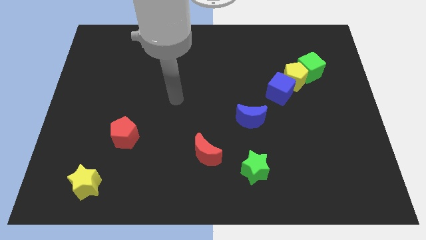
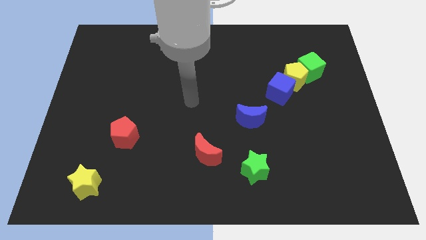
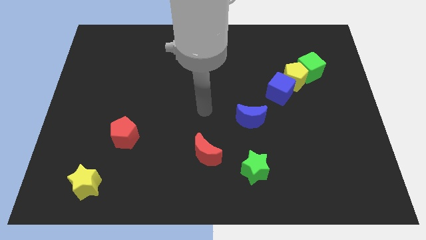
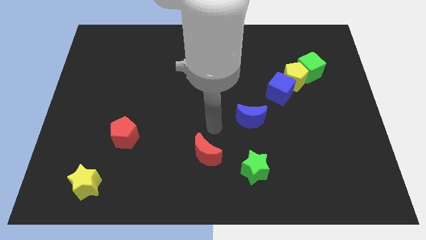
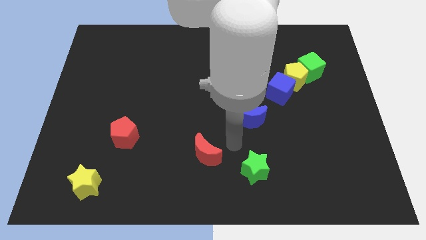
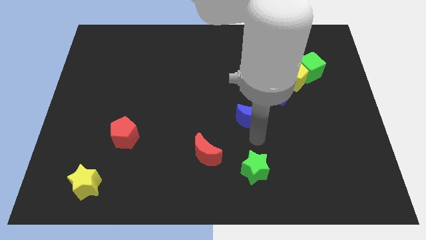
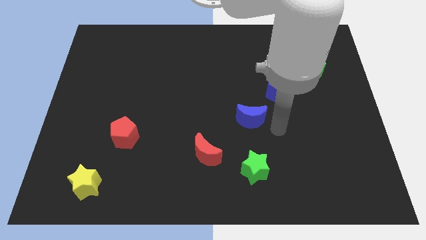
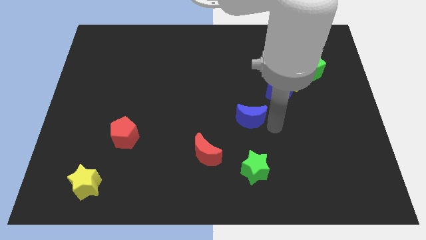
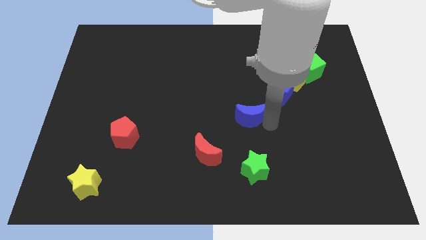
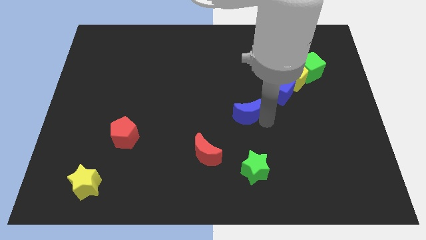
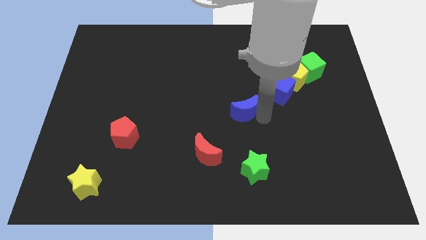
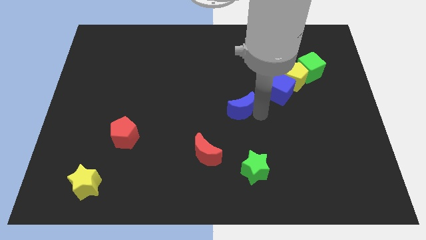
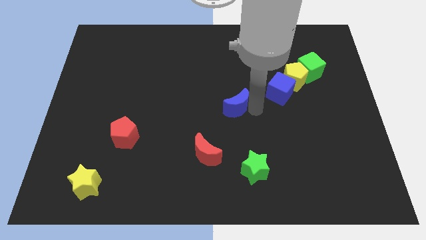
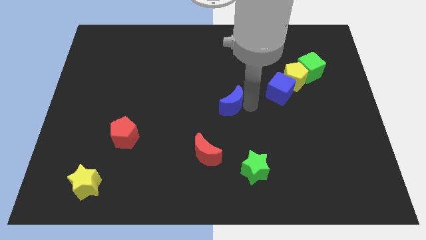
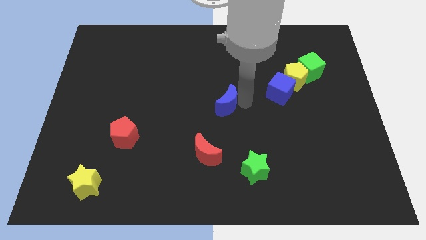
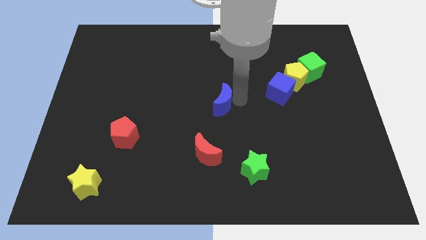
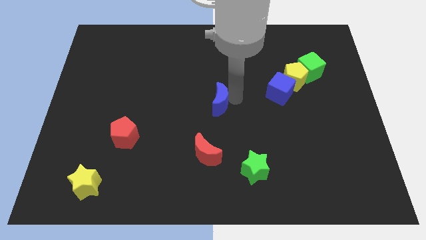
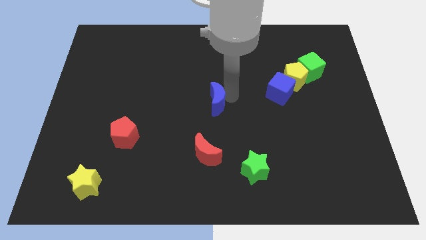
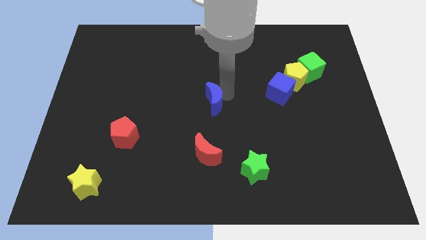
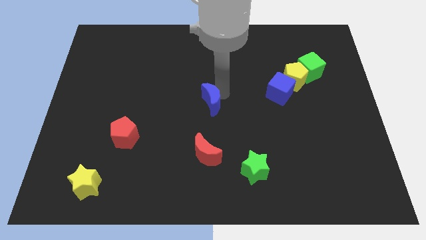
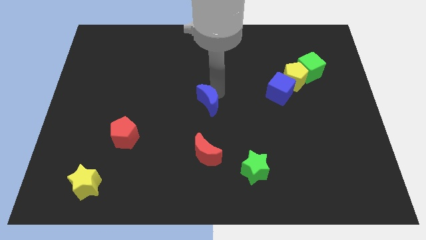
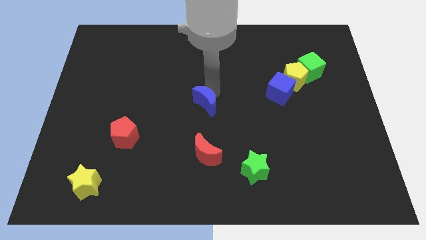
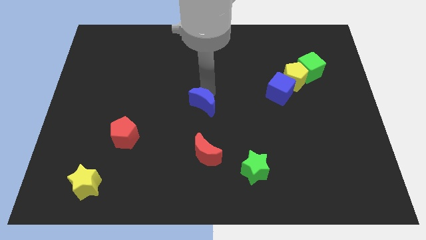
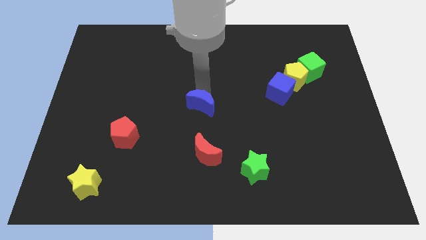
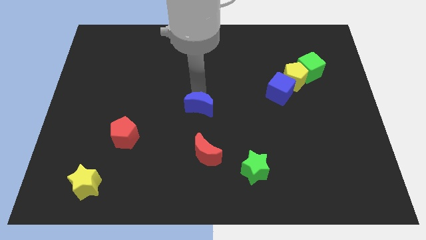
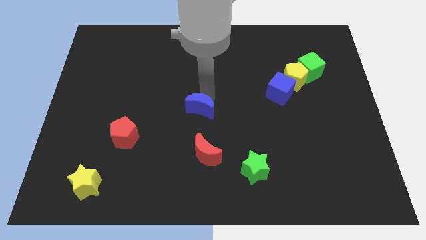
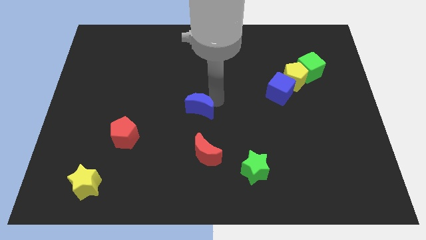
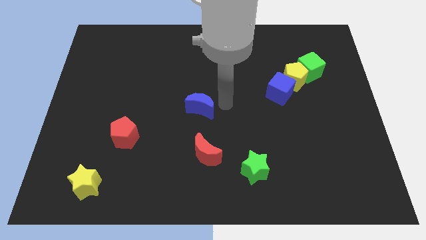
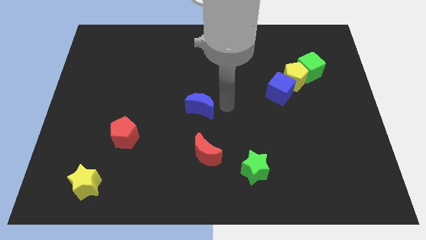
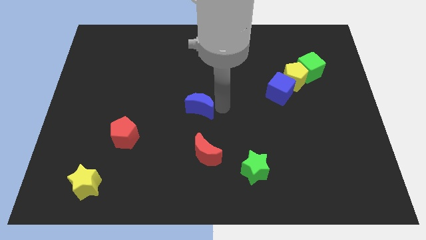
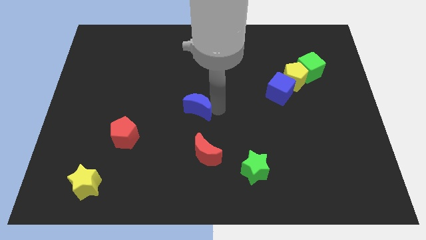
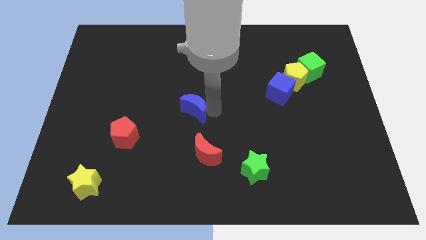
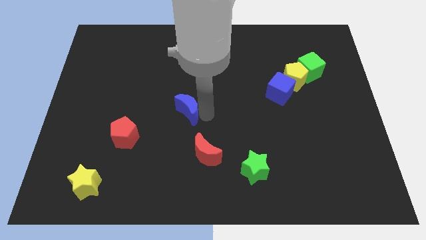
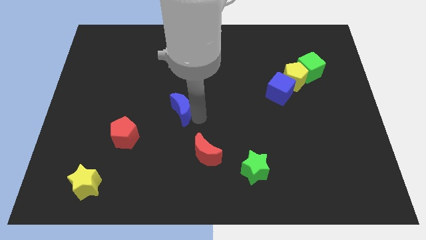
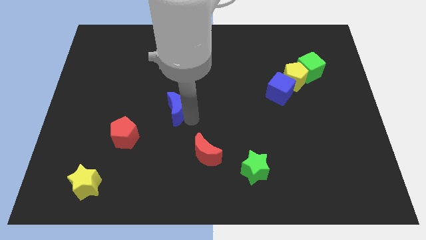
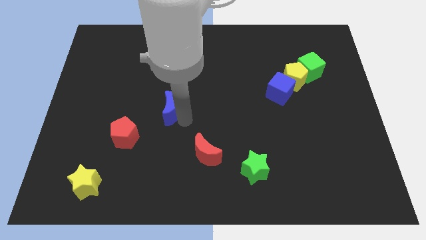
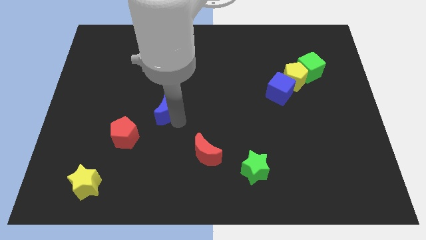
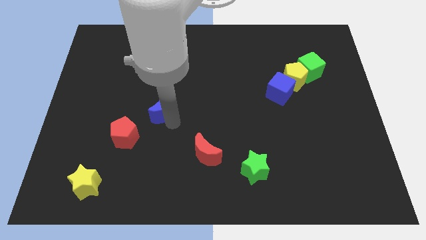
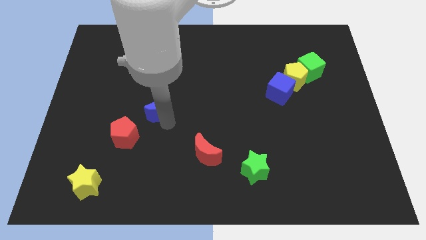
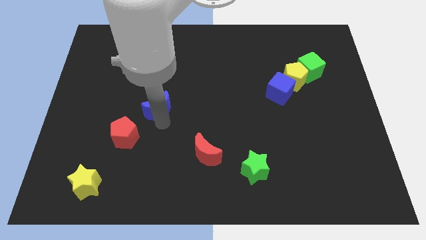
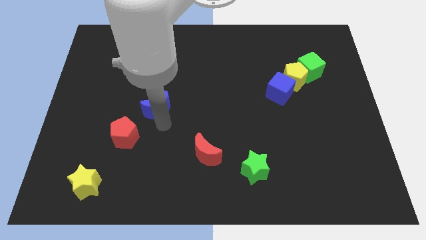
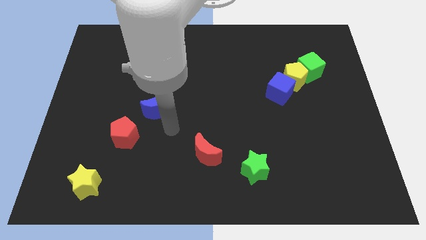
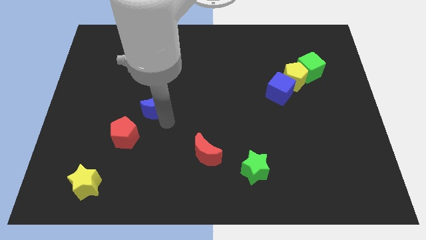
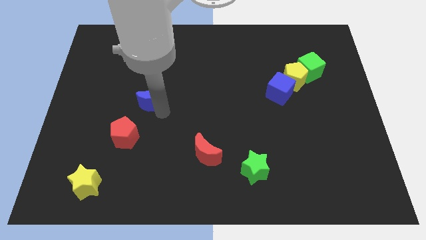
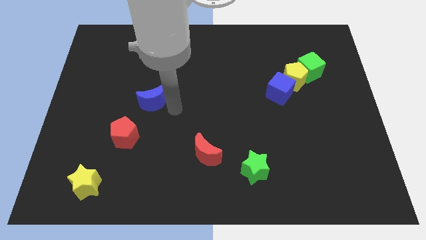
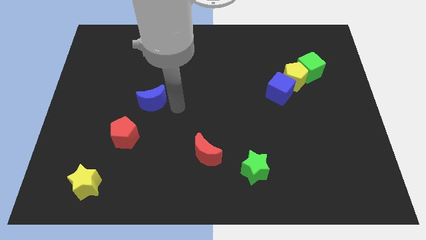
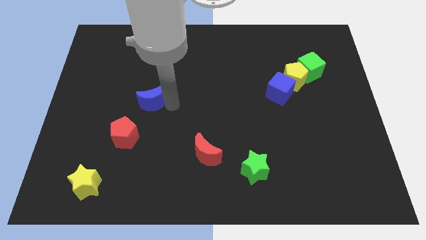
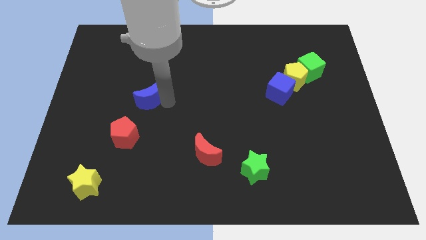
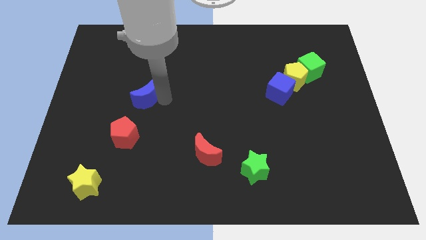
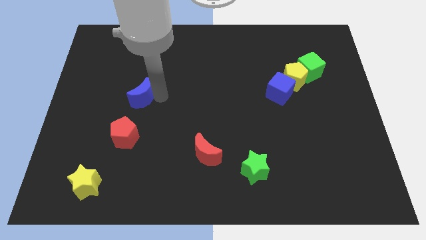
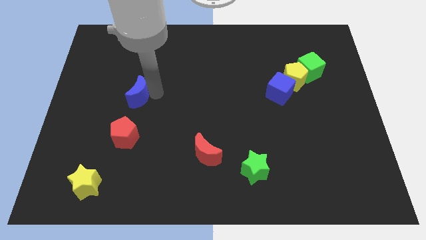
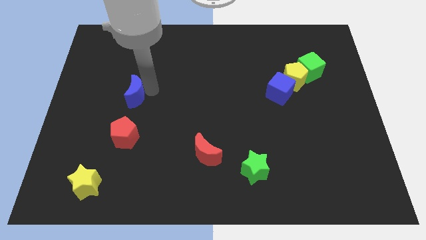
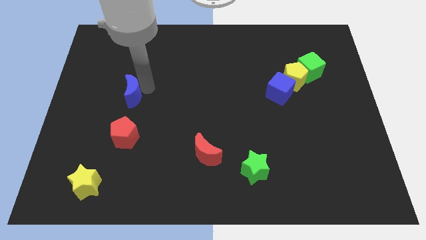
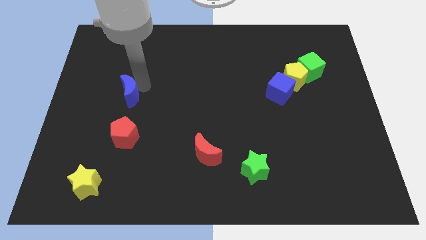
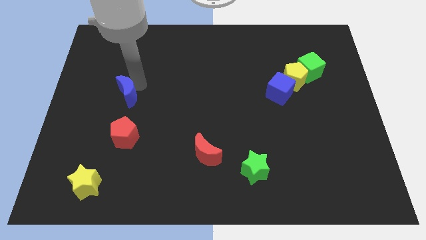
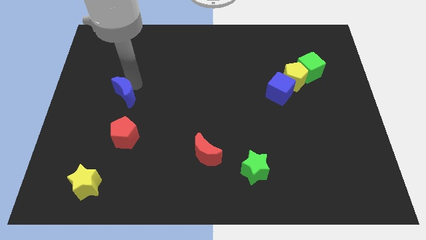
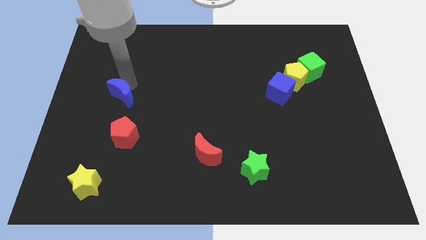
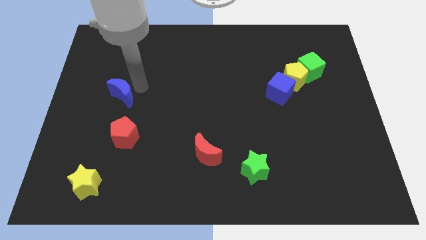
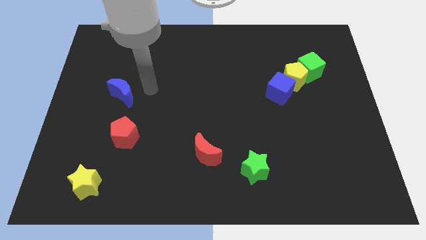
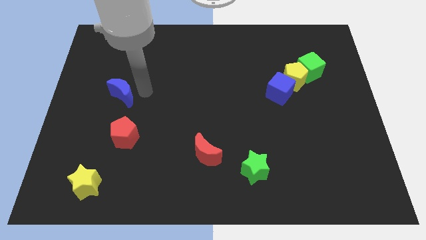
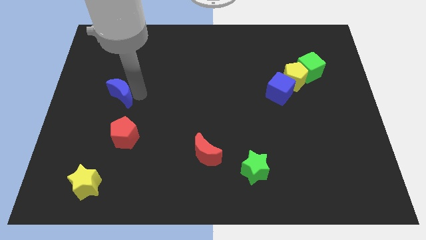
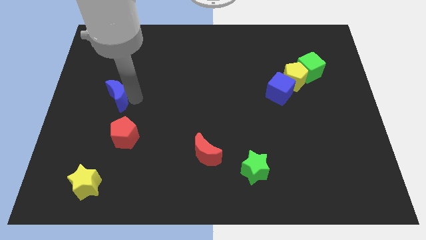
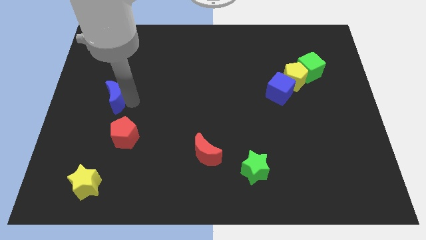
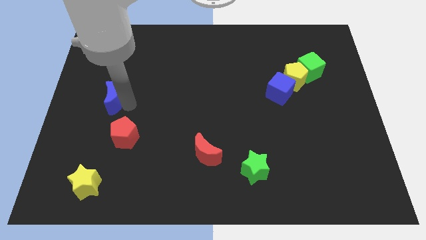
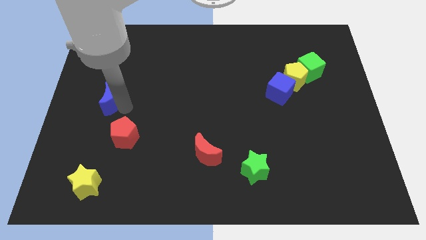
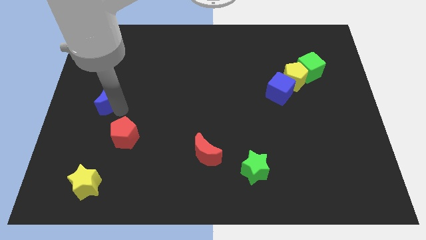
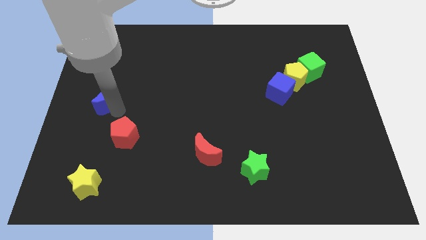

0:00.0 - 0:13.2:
push the blue moon to the left side

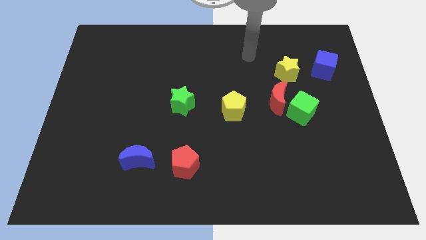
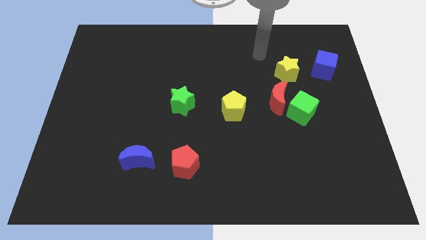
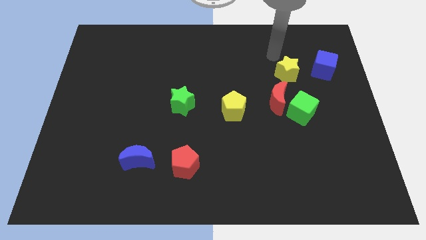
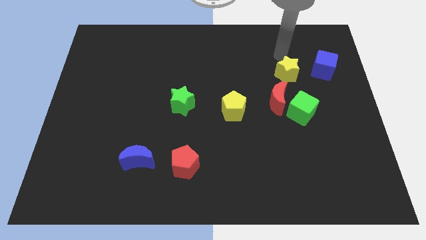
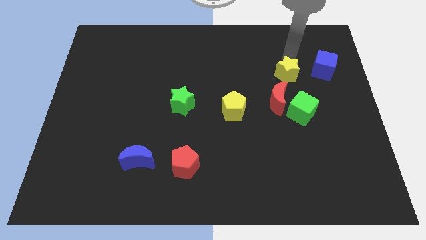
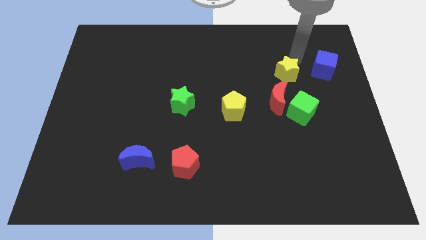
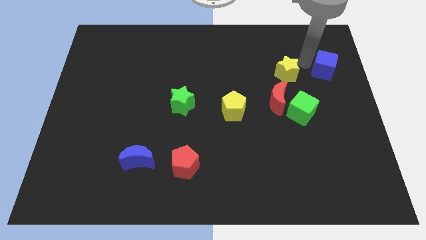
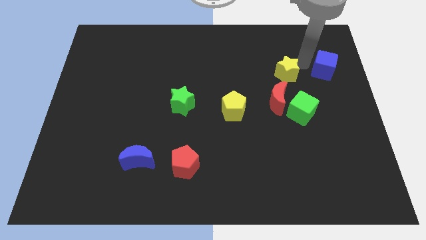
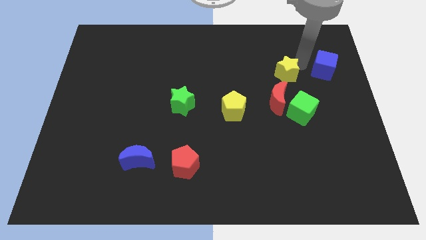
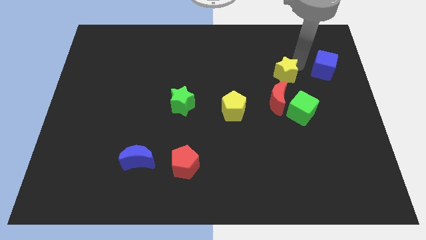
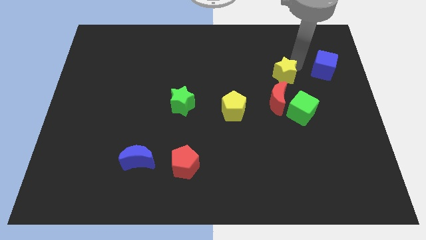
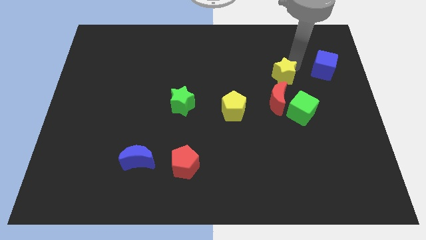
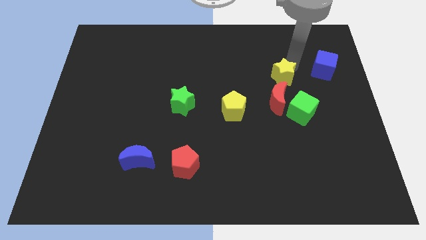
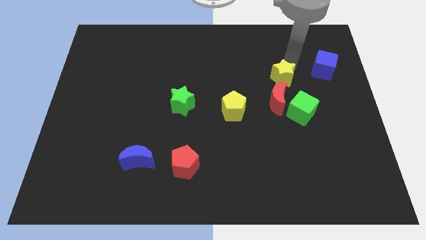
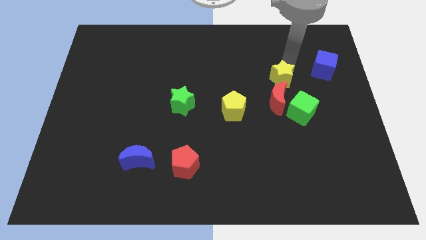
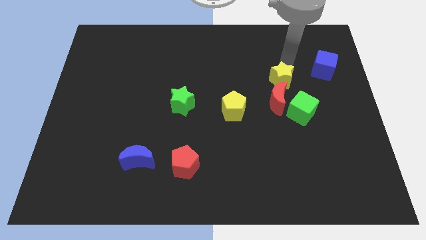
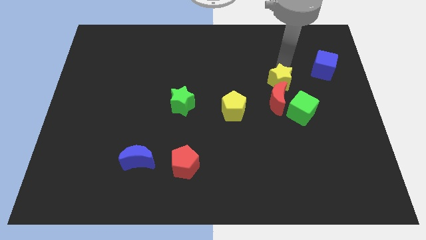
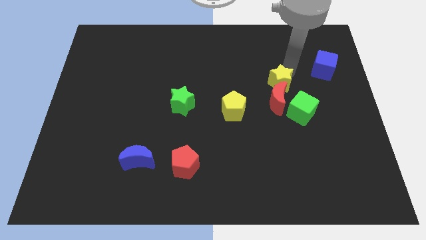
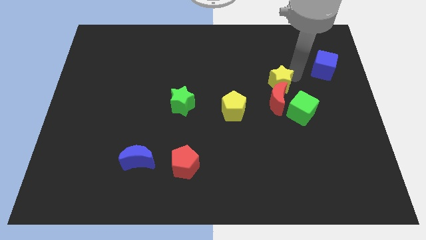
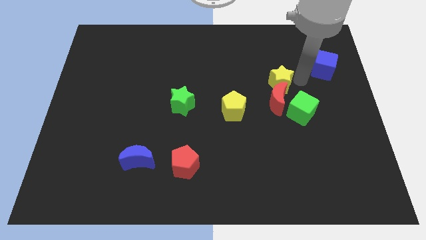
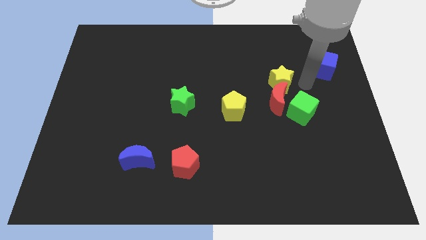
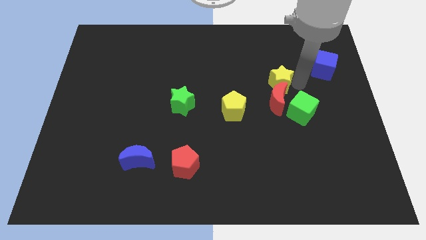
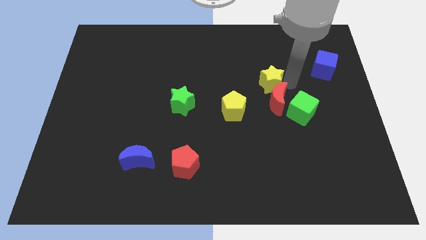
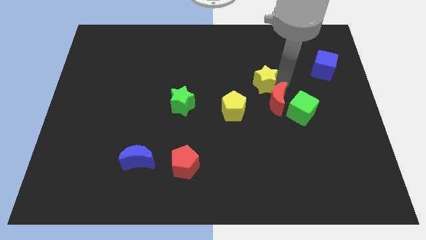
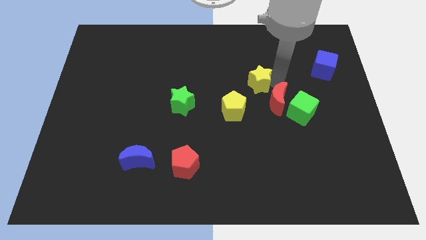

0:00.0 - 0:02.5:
slide the yellow star to the center
